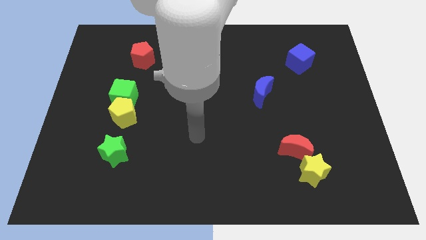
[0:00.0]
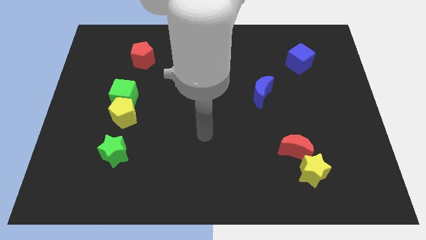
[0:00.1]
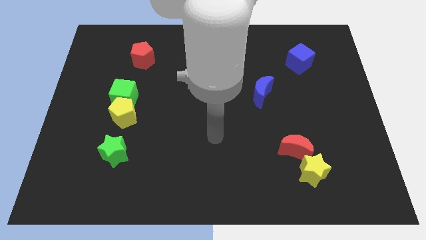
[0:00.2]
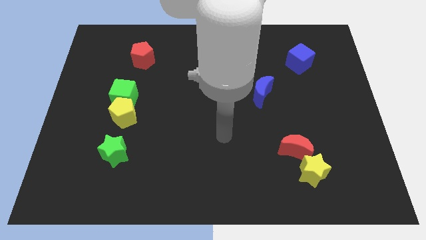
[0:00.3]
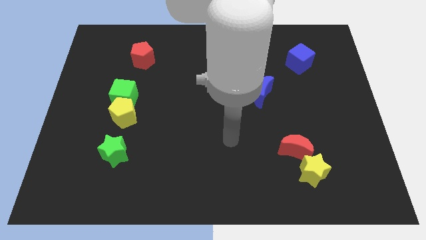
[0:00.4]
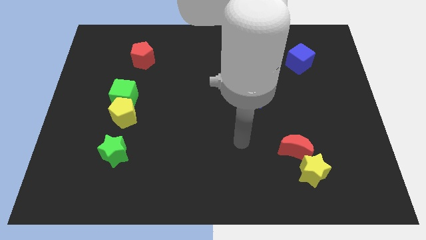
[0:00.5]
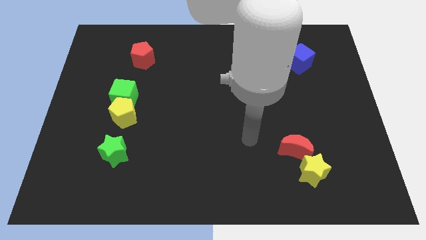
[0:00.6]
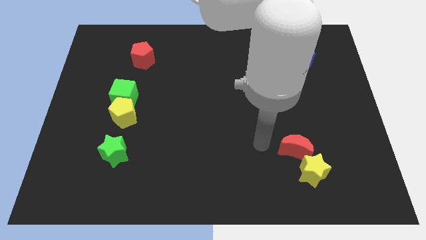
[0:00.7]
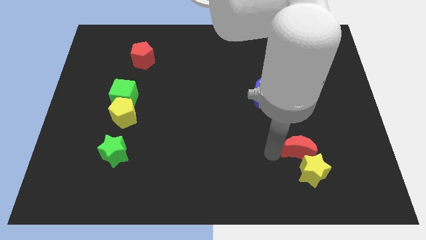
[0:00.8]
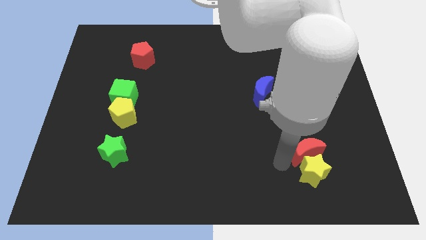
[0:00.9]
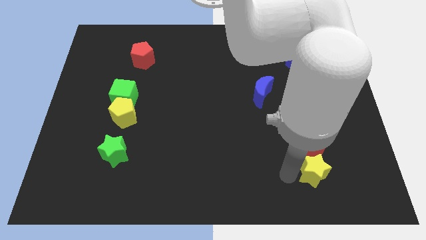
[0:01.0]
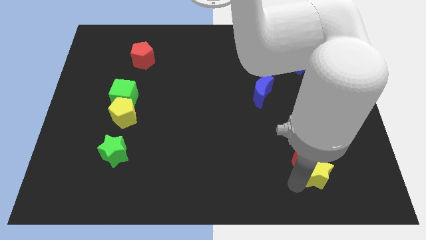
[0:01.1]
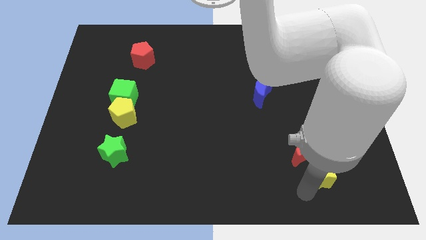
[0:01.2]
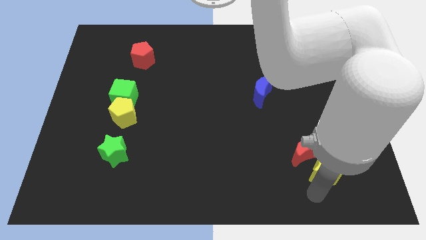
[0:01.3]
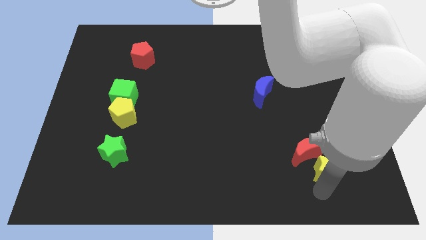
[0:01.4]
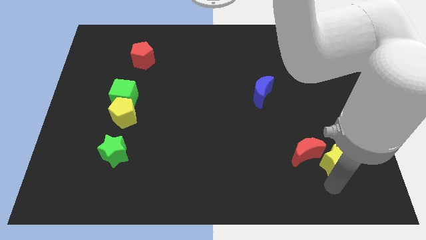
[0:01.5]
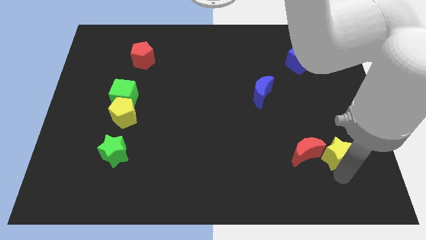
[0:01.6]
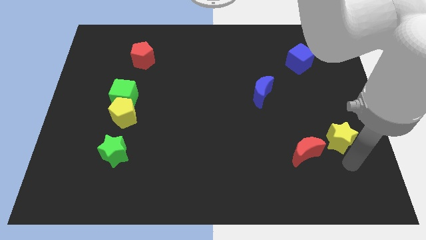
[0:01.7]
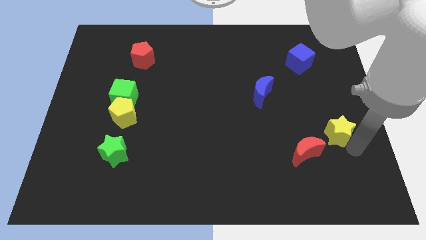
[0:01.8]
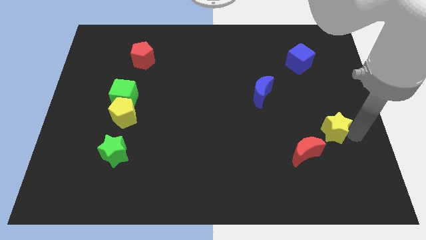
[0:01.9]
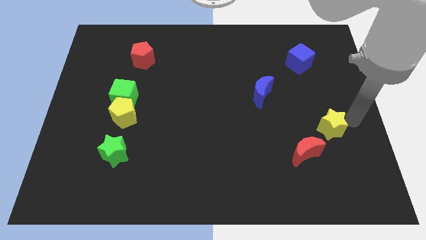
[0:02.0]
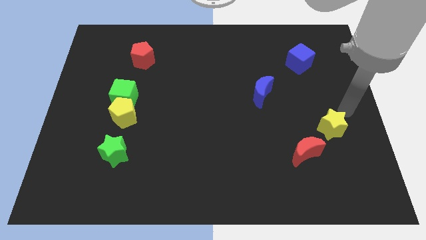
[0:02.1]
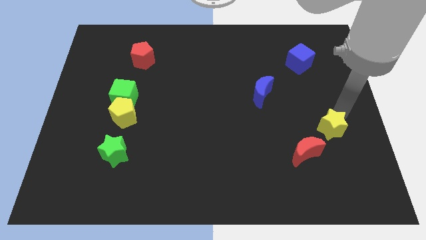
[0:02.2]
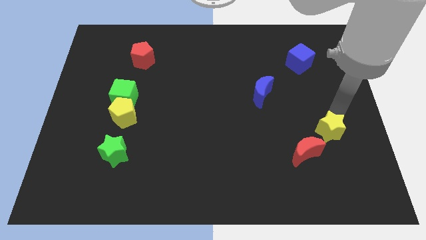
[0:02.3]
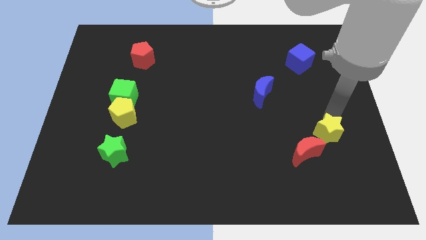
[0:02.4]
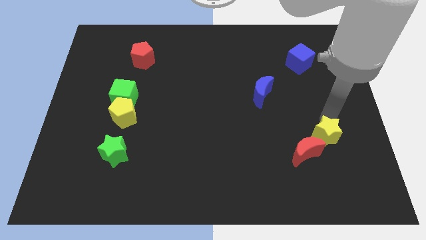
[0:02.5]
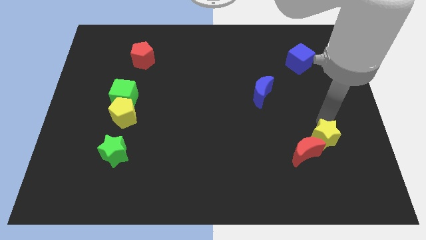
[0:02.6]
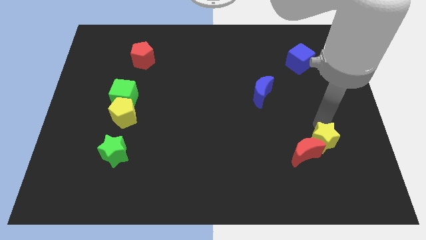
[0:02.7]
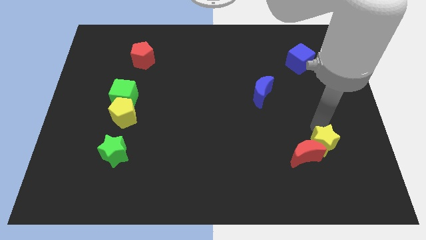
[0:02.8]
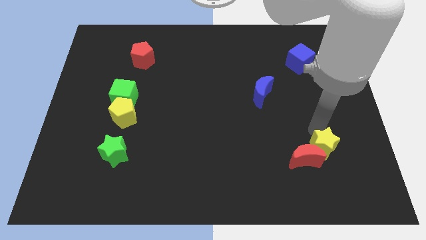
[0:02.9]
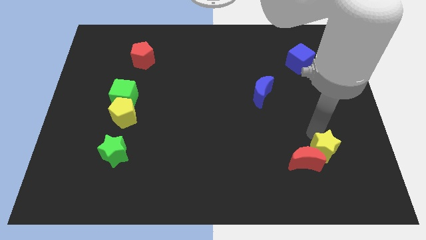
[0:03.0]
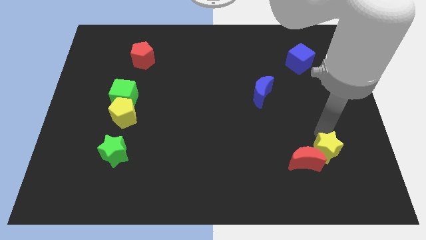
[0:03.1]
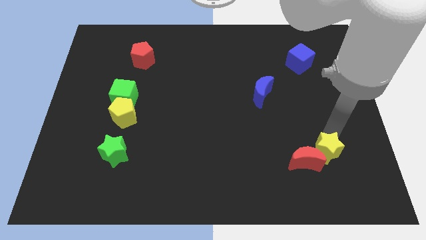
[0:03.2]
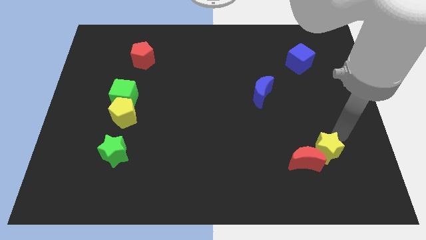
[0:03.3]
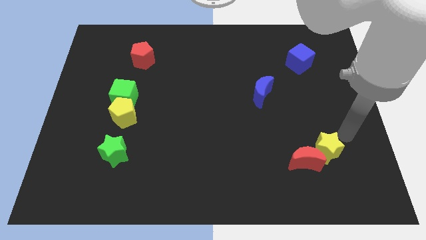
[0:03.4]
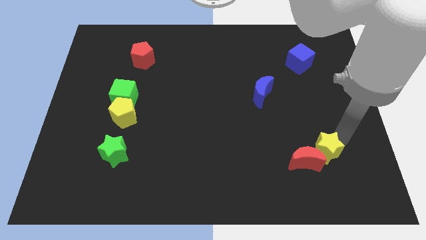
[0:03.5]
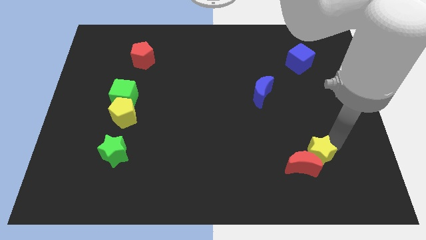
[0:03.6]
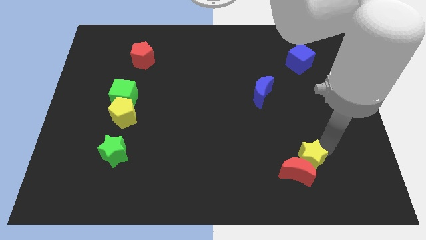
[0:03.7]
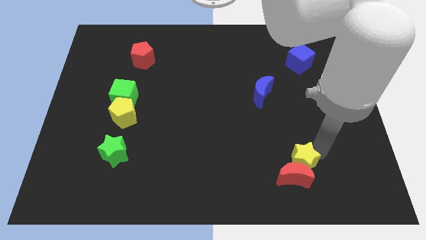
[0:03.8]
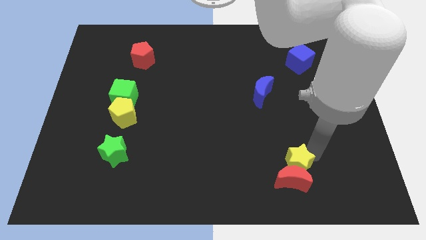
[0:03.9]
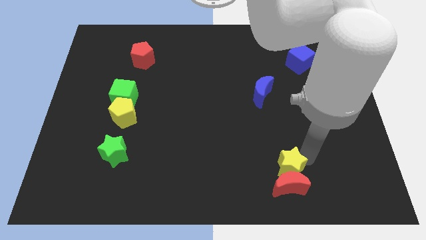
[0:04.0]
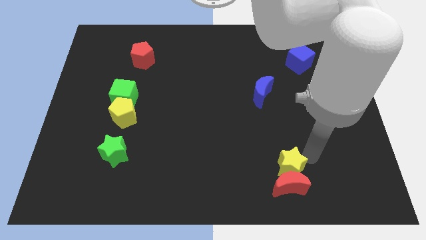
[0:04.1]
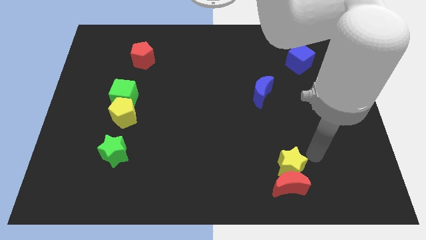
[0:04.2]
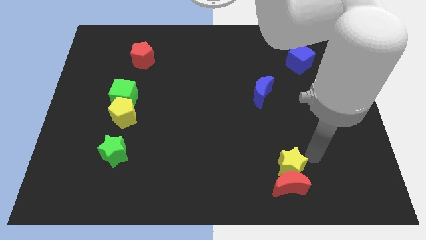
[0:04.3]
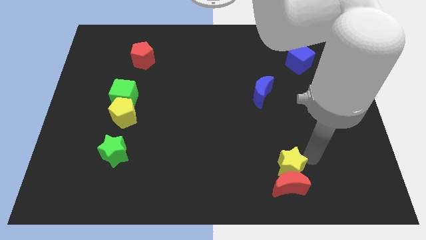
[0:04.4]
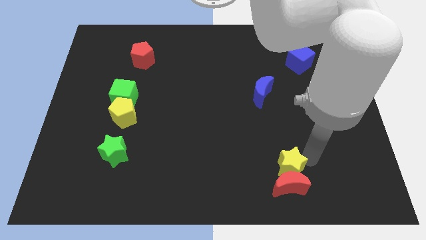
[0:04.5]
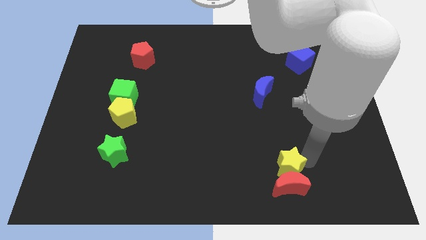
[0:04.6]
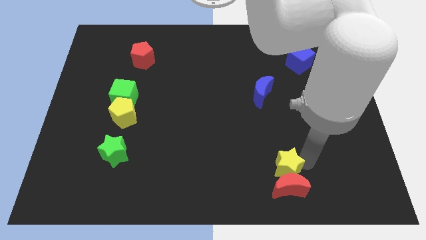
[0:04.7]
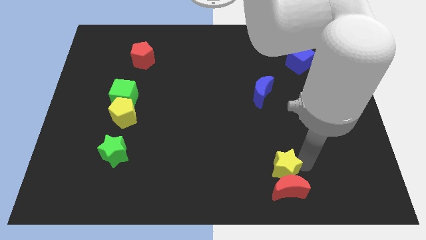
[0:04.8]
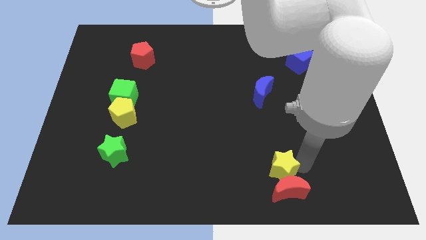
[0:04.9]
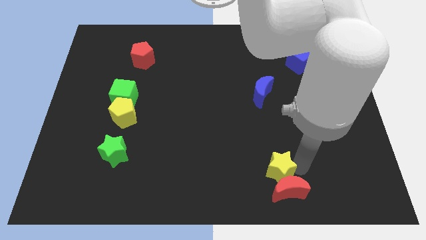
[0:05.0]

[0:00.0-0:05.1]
move the yellow star a little bit left

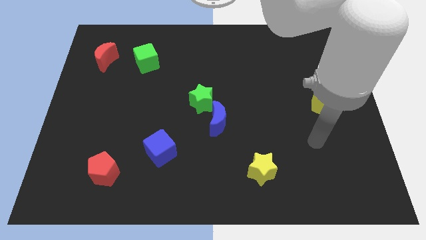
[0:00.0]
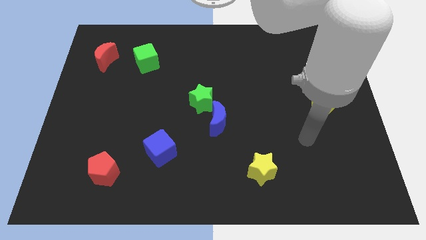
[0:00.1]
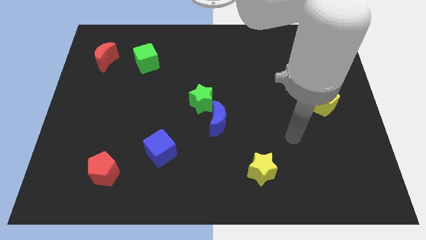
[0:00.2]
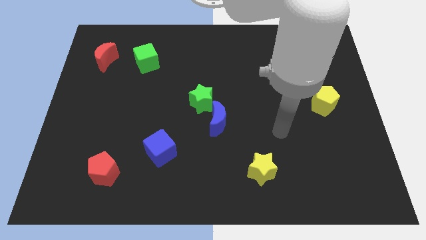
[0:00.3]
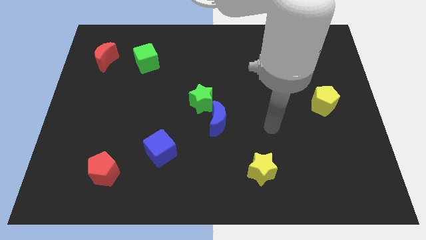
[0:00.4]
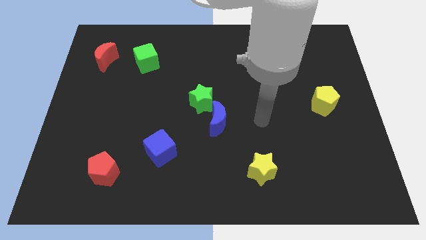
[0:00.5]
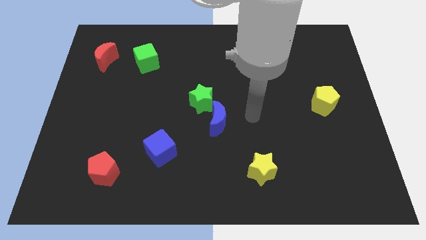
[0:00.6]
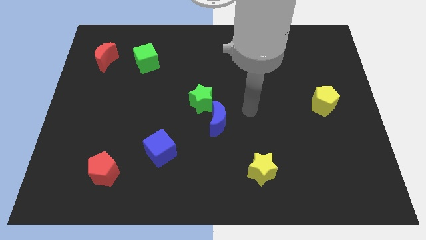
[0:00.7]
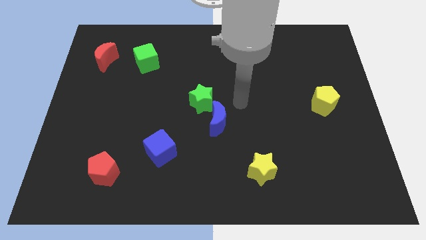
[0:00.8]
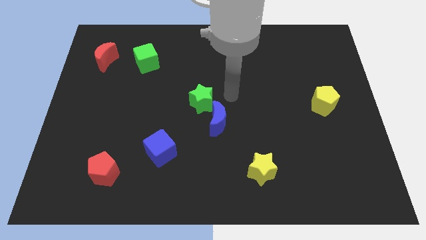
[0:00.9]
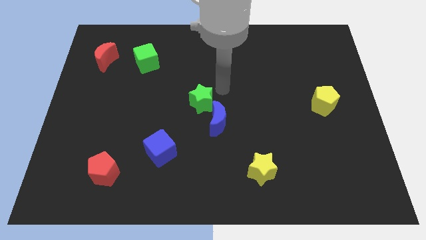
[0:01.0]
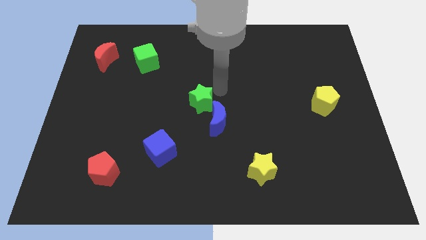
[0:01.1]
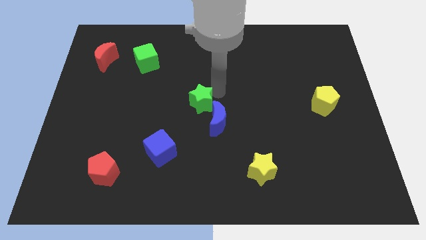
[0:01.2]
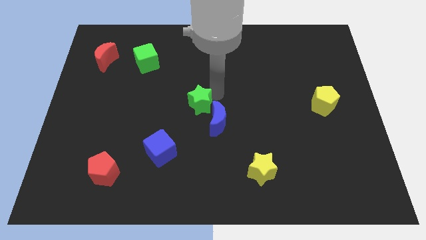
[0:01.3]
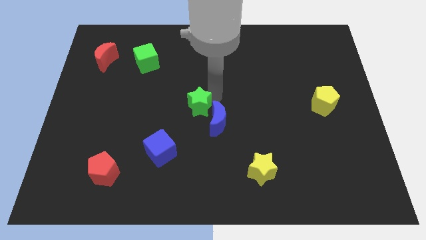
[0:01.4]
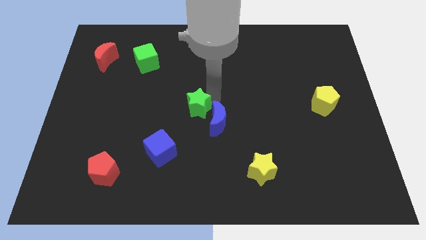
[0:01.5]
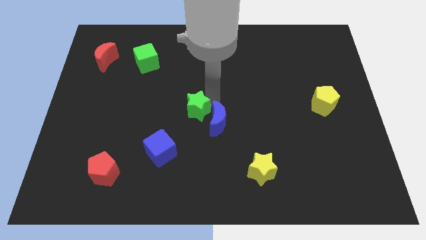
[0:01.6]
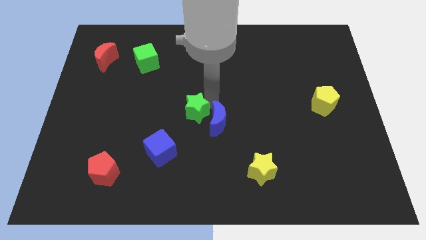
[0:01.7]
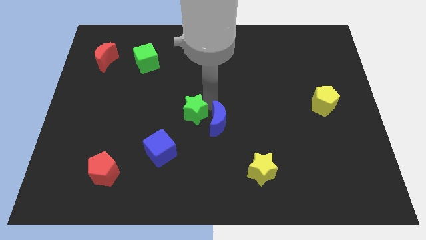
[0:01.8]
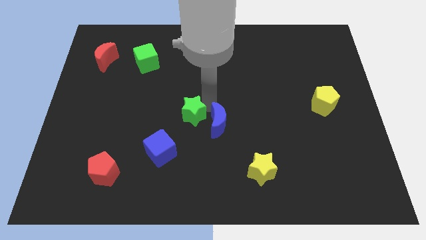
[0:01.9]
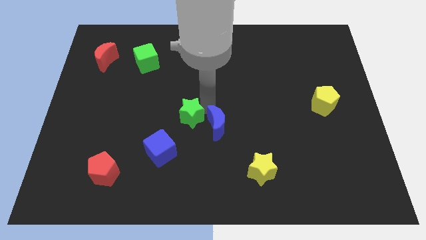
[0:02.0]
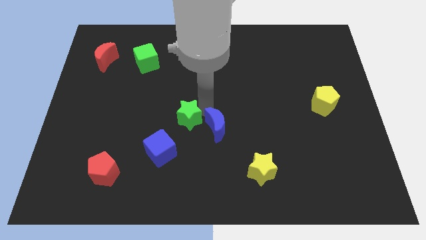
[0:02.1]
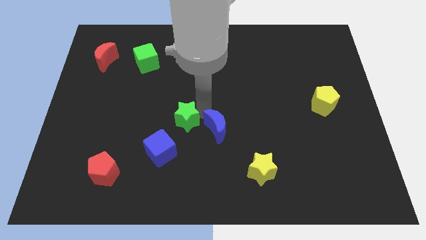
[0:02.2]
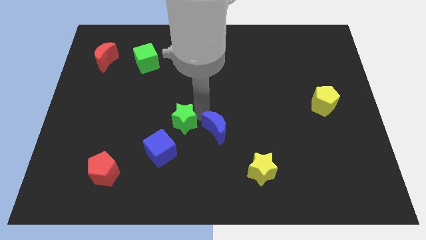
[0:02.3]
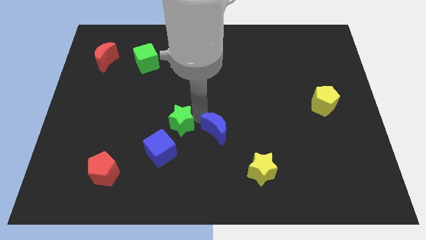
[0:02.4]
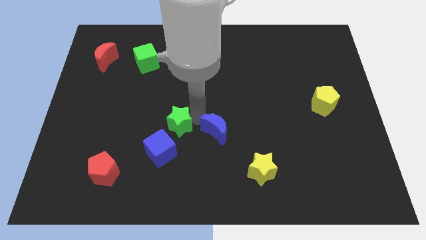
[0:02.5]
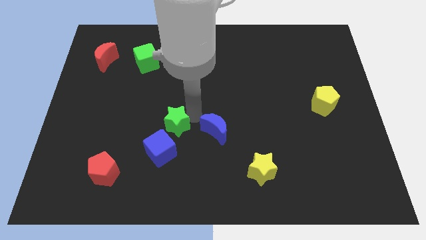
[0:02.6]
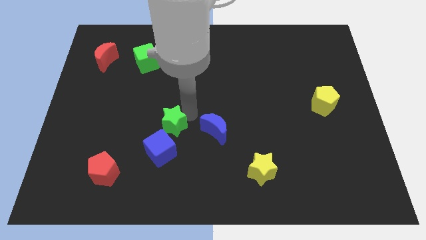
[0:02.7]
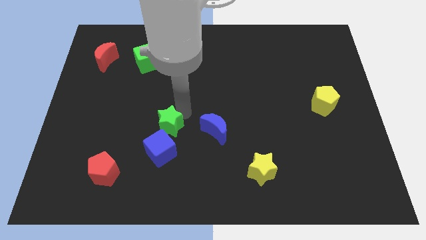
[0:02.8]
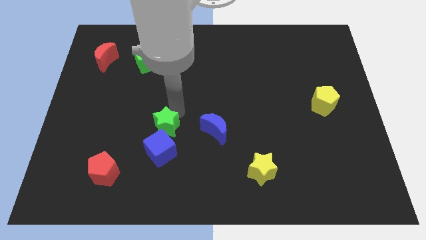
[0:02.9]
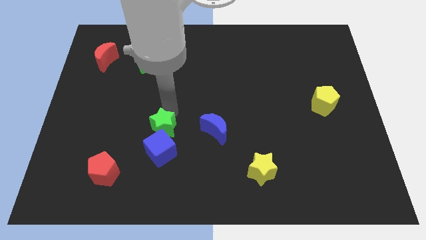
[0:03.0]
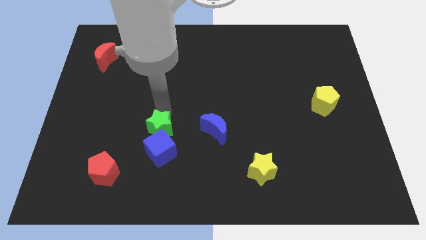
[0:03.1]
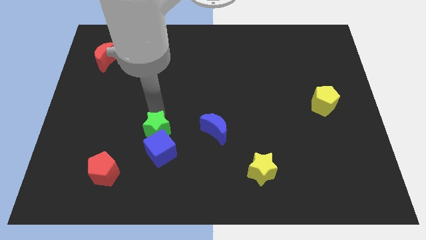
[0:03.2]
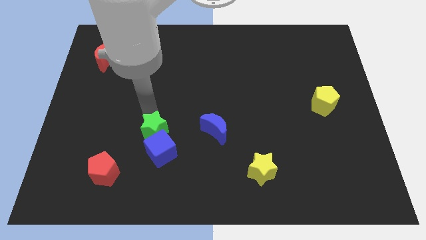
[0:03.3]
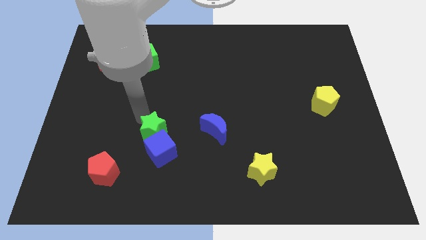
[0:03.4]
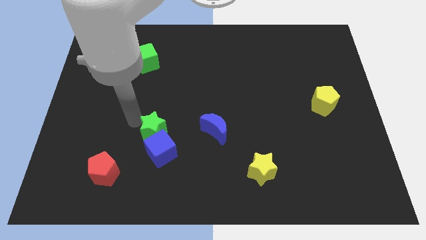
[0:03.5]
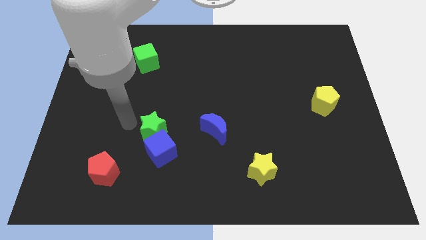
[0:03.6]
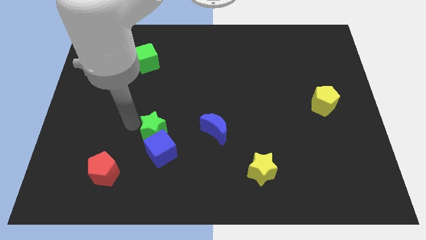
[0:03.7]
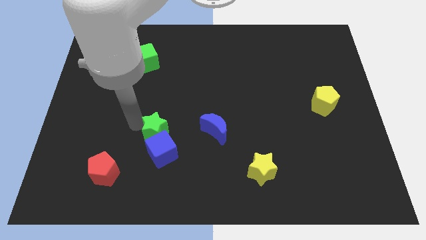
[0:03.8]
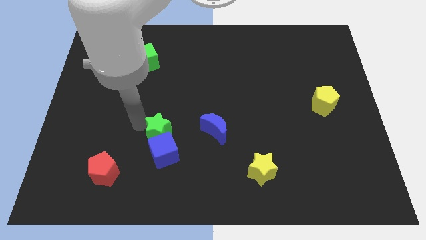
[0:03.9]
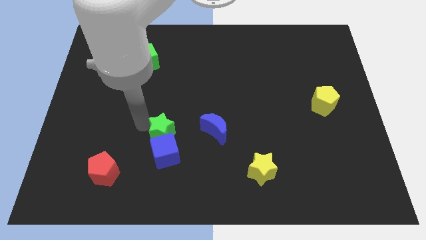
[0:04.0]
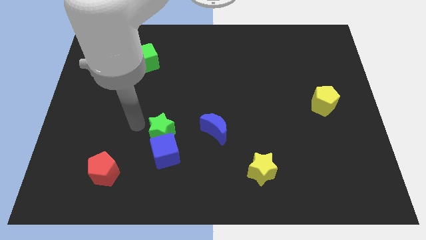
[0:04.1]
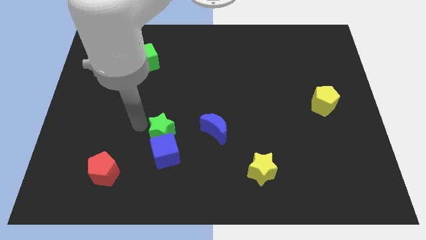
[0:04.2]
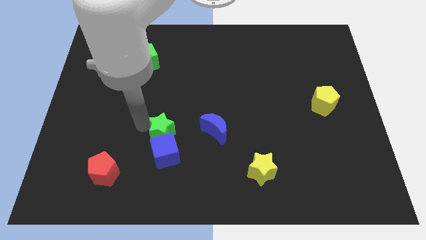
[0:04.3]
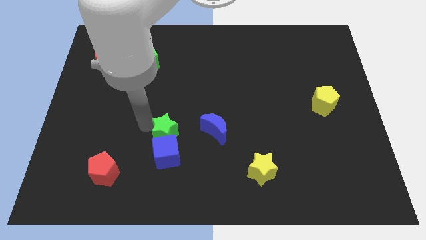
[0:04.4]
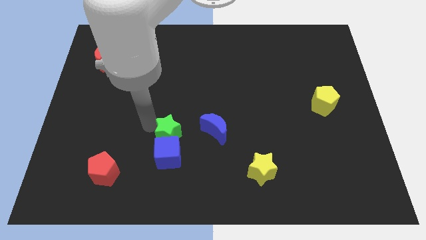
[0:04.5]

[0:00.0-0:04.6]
move the green star a little bit downwards
